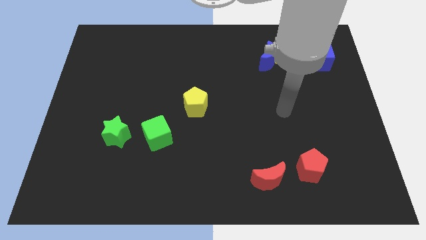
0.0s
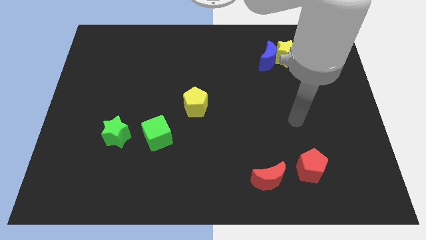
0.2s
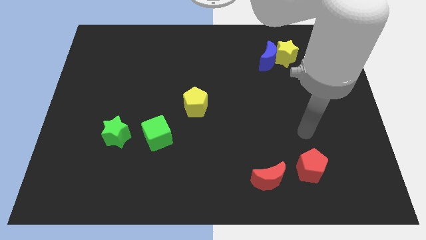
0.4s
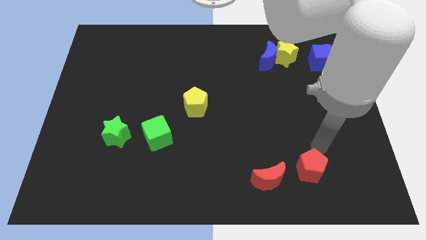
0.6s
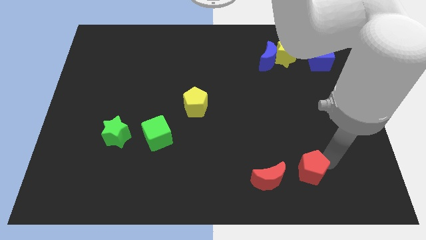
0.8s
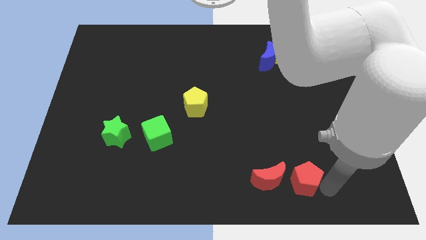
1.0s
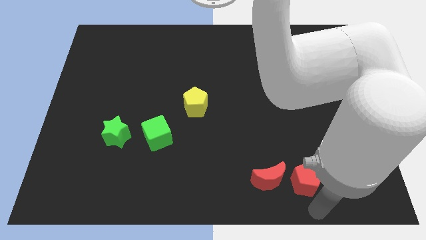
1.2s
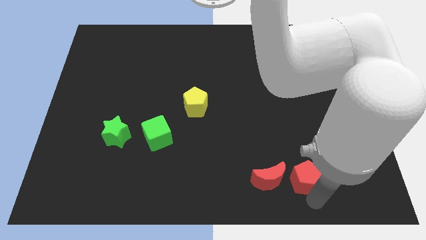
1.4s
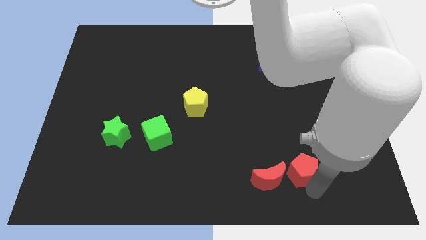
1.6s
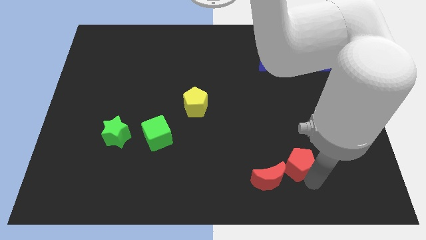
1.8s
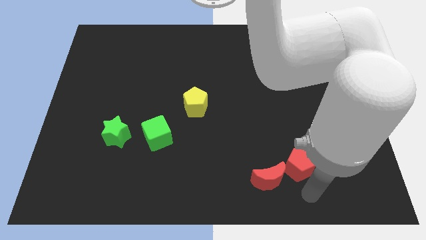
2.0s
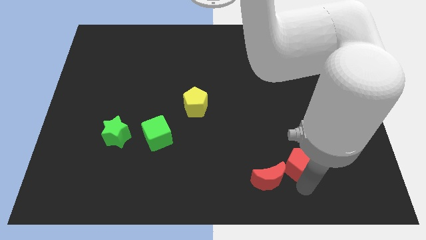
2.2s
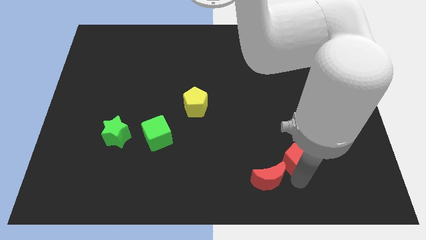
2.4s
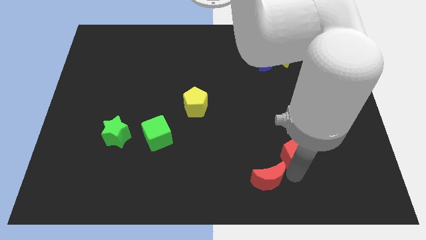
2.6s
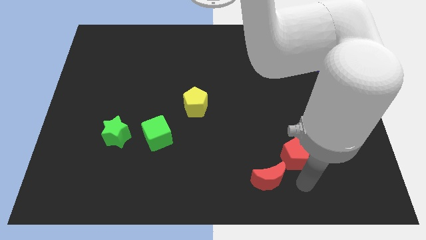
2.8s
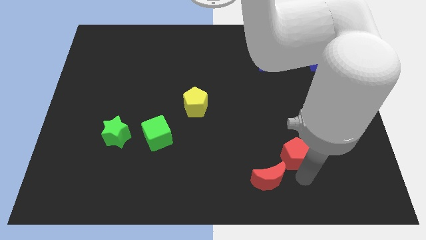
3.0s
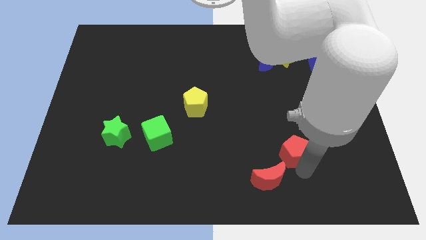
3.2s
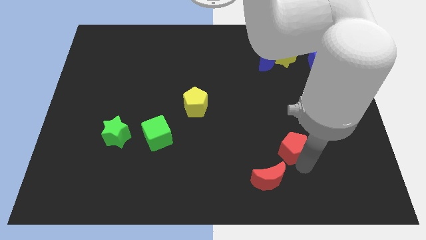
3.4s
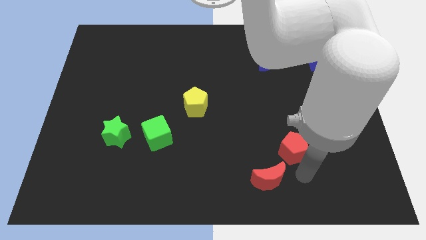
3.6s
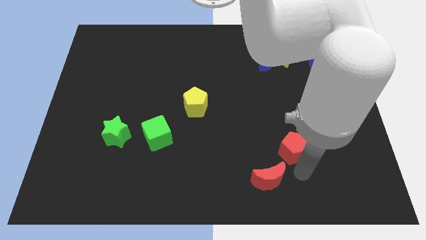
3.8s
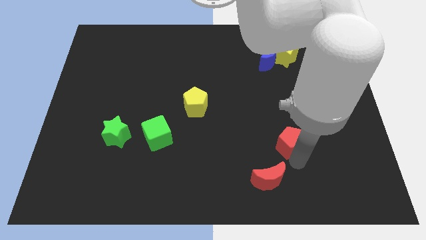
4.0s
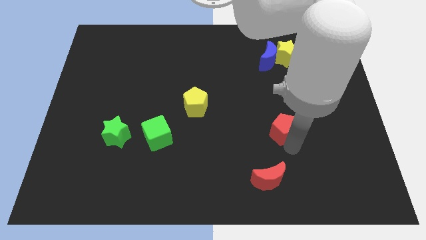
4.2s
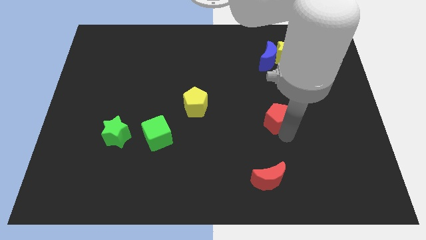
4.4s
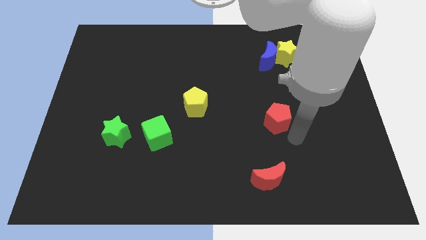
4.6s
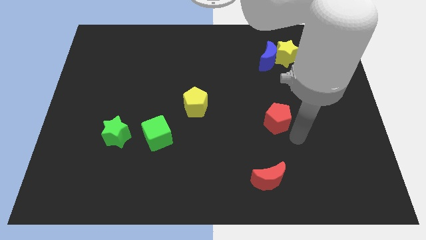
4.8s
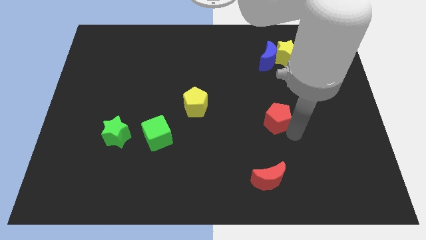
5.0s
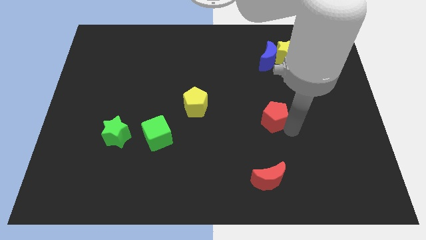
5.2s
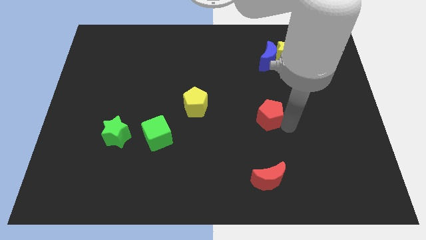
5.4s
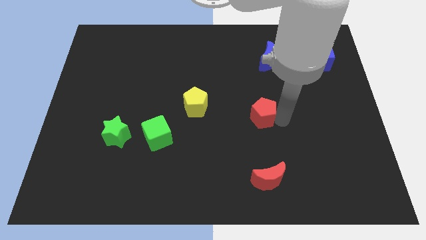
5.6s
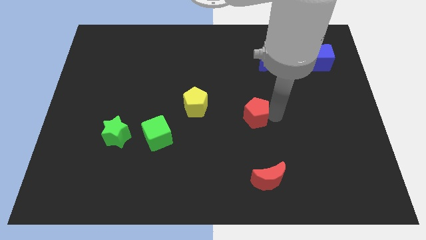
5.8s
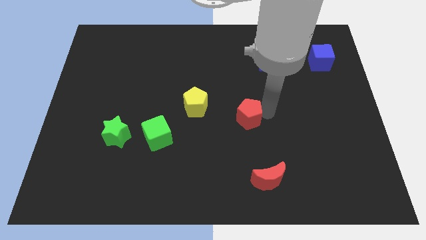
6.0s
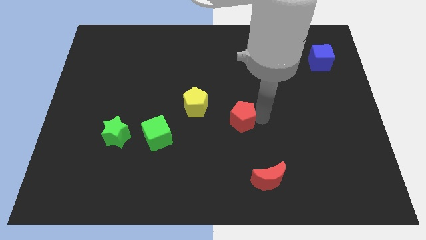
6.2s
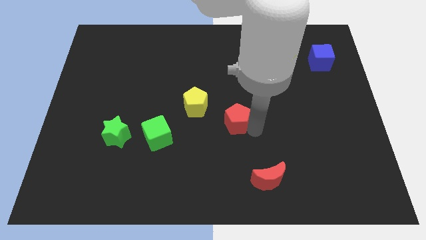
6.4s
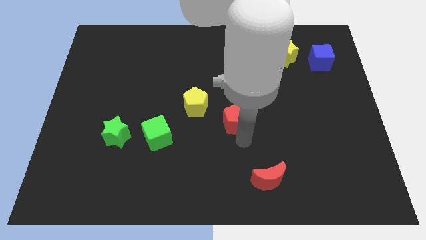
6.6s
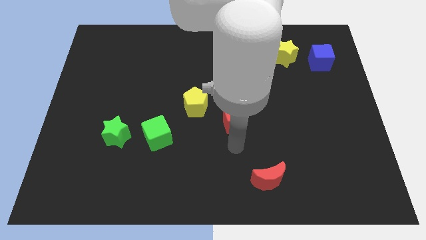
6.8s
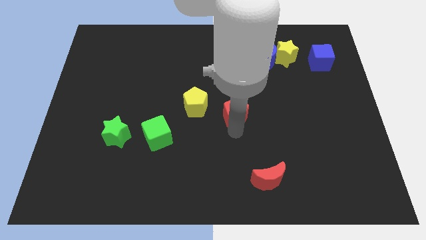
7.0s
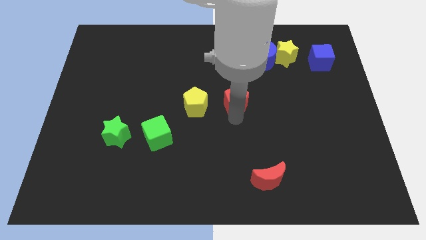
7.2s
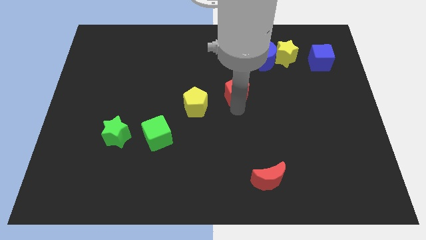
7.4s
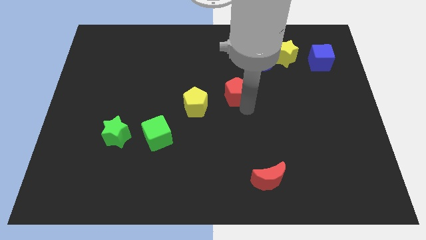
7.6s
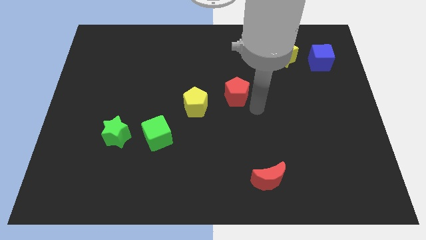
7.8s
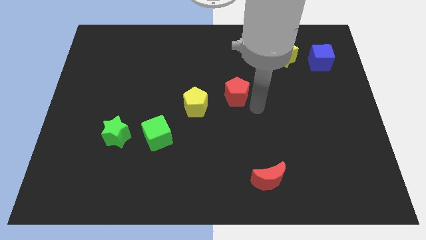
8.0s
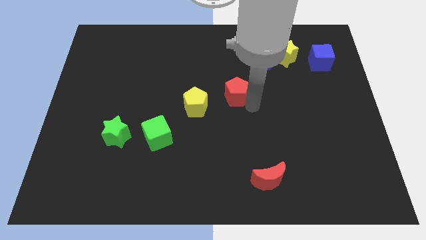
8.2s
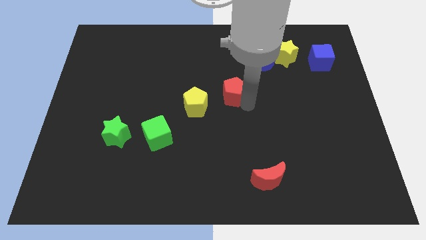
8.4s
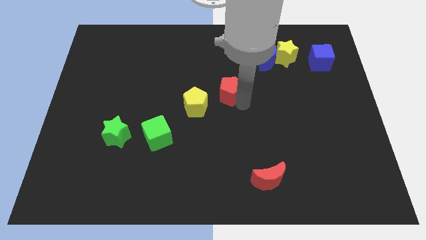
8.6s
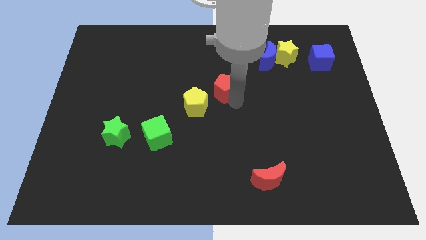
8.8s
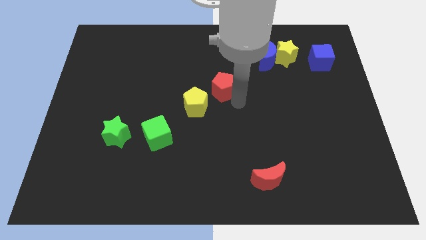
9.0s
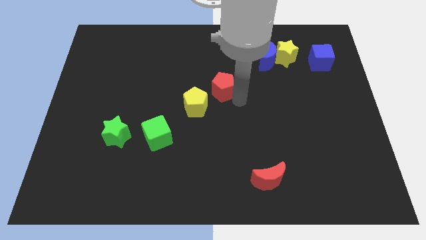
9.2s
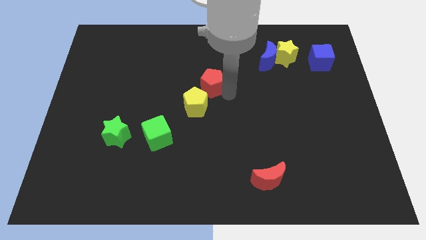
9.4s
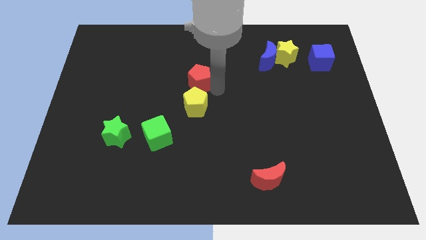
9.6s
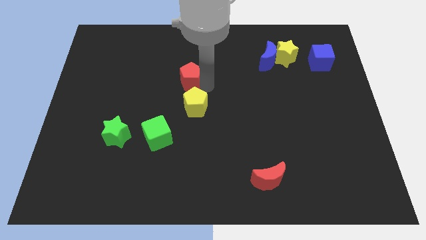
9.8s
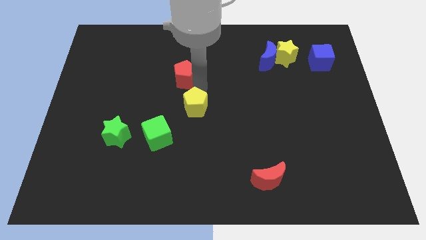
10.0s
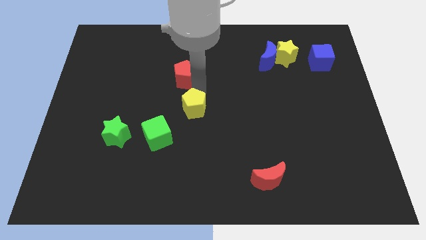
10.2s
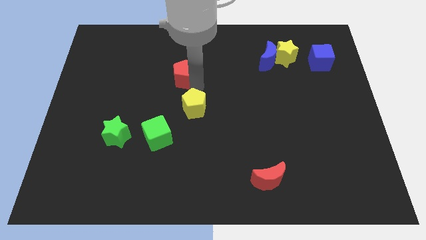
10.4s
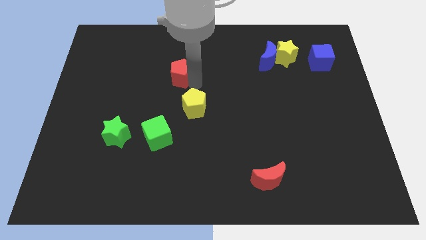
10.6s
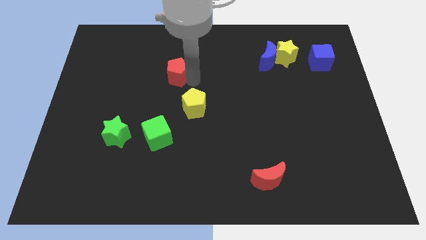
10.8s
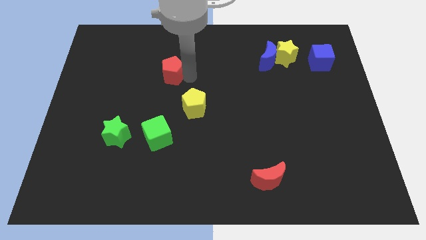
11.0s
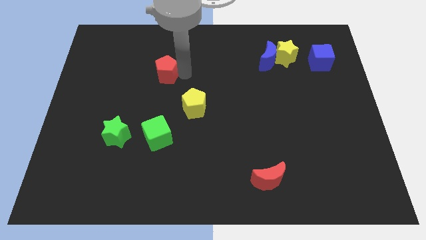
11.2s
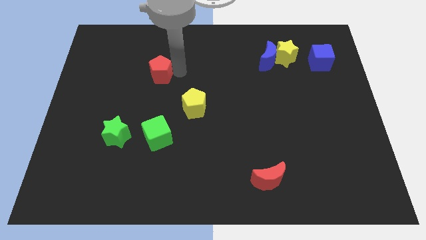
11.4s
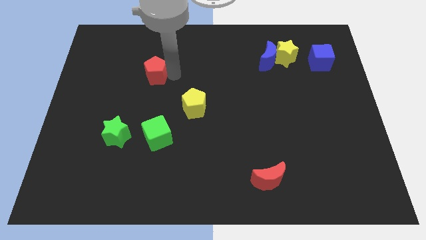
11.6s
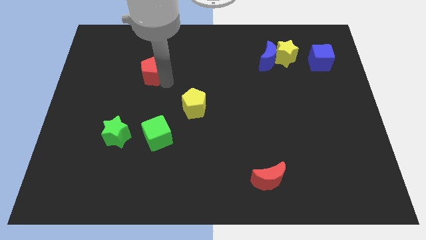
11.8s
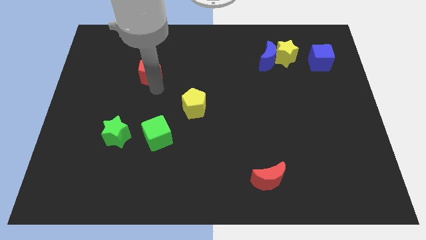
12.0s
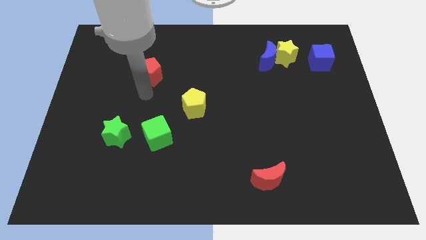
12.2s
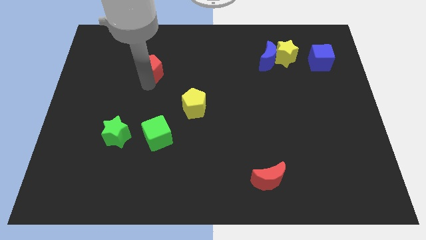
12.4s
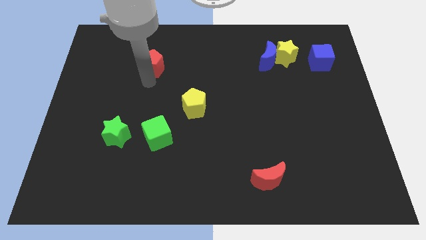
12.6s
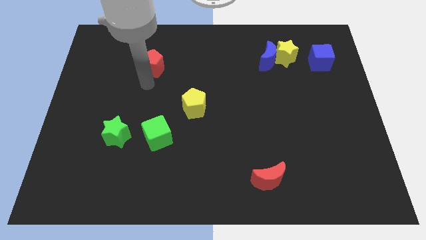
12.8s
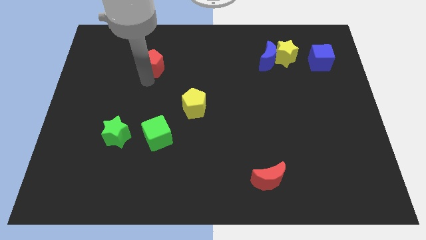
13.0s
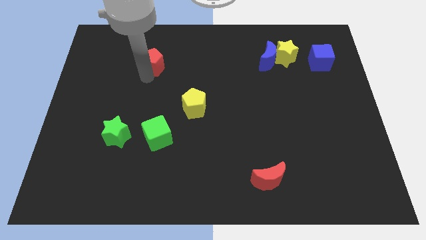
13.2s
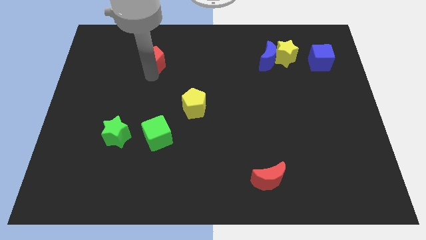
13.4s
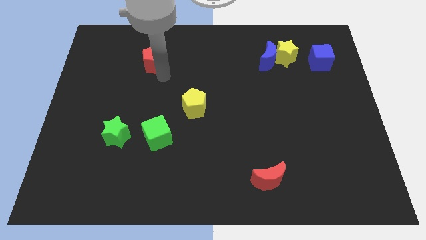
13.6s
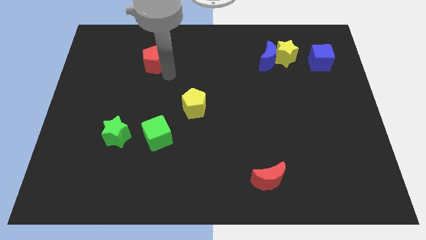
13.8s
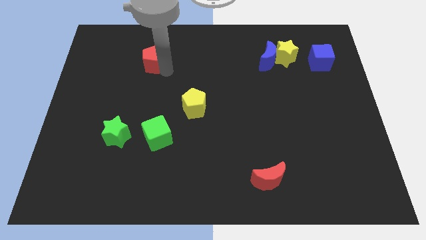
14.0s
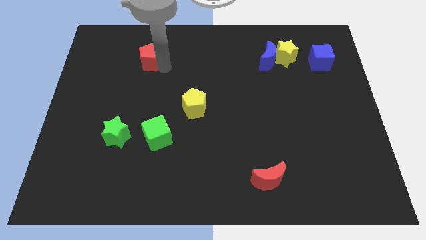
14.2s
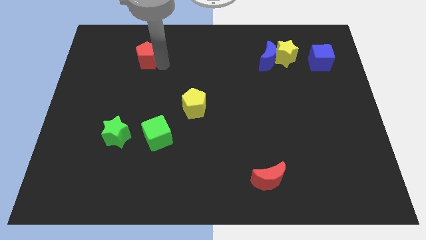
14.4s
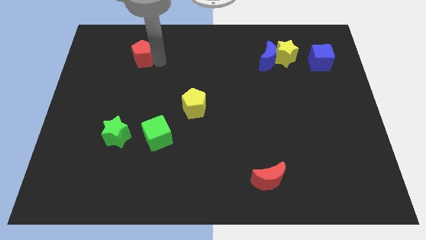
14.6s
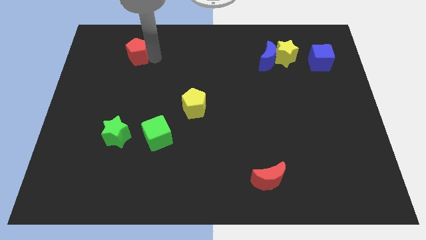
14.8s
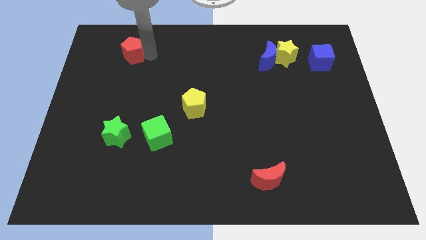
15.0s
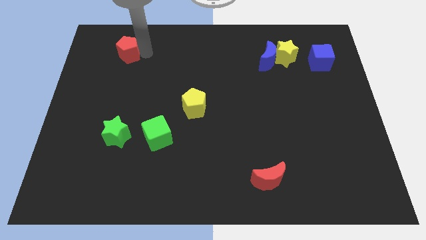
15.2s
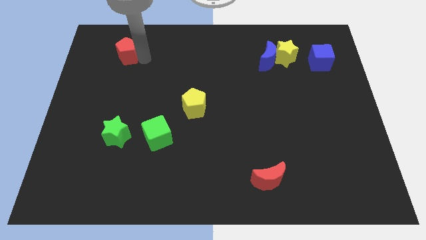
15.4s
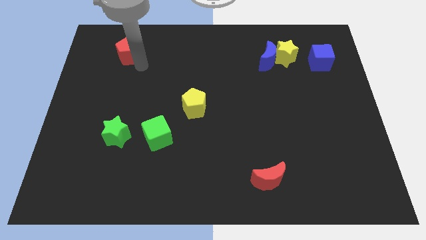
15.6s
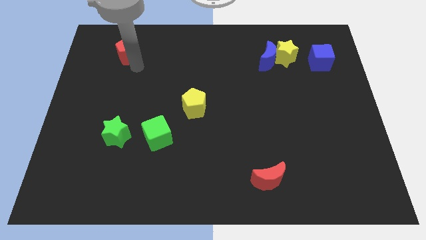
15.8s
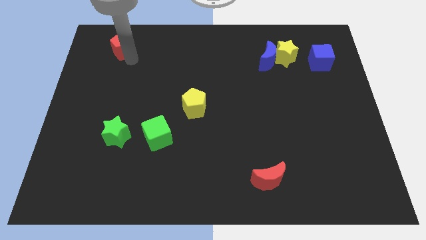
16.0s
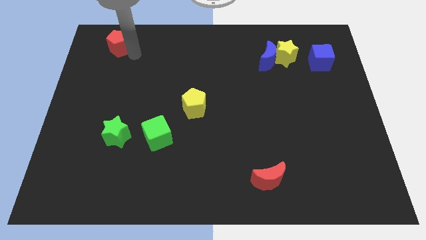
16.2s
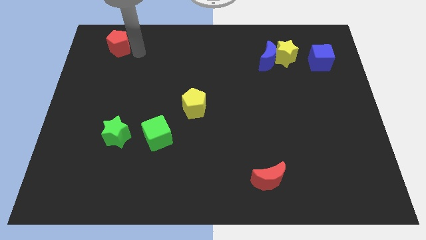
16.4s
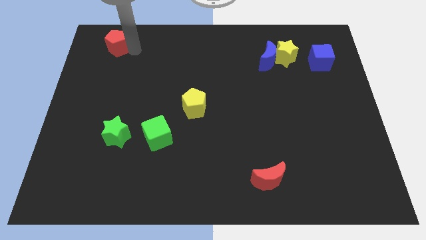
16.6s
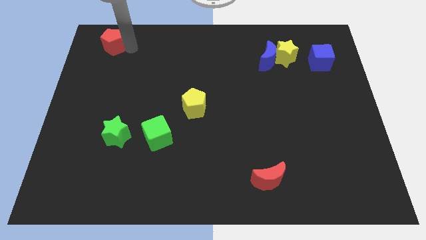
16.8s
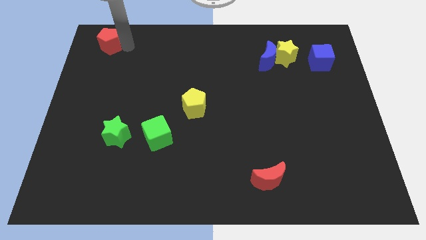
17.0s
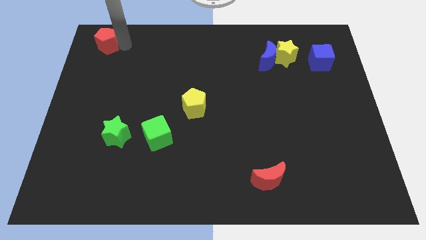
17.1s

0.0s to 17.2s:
move the red pentagon to the top left of the board
